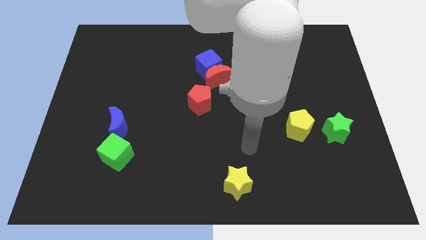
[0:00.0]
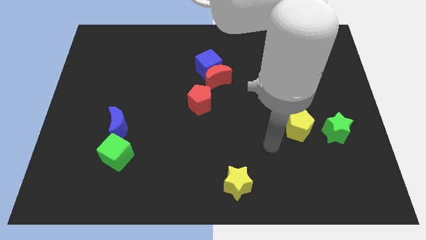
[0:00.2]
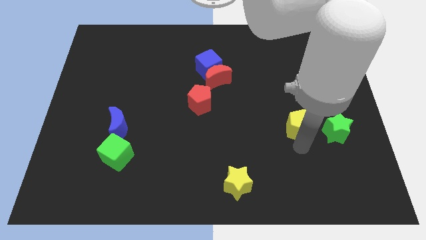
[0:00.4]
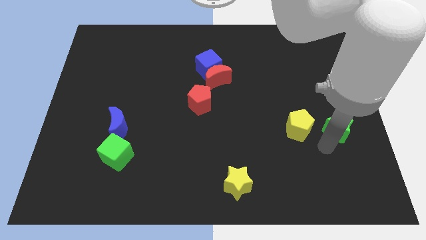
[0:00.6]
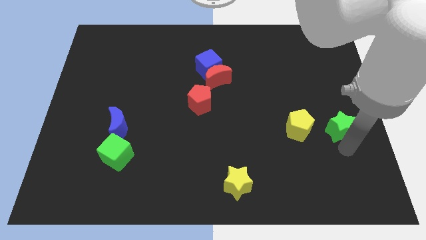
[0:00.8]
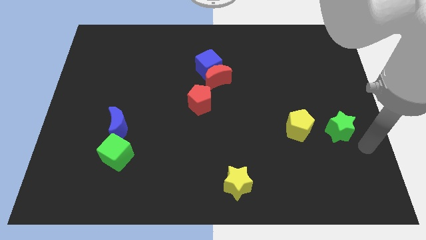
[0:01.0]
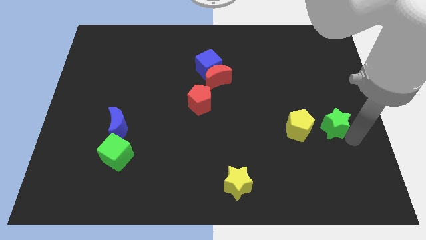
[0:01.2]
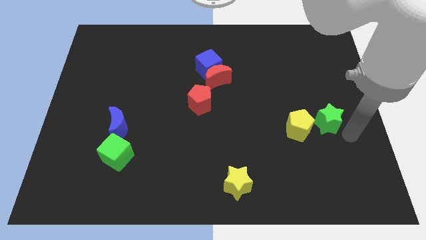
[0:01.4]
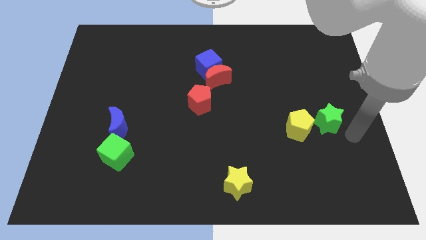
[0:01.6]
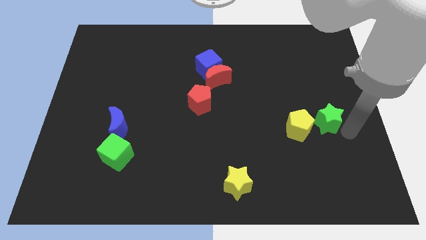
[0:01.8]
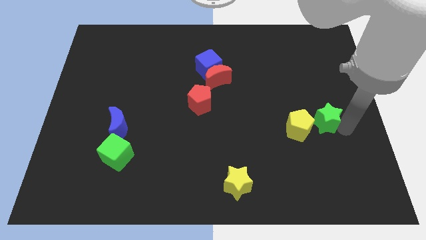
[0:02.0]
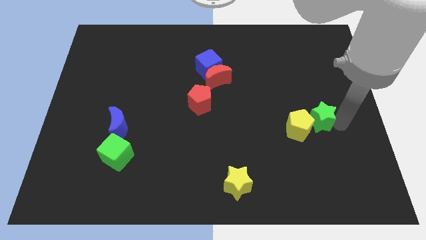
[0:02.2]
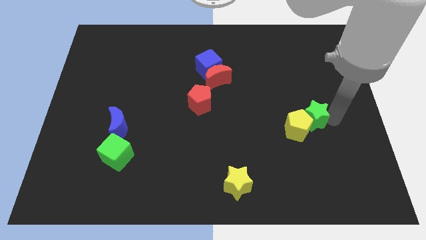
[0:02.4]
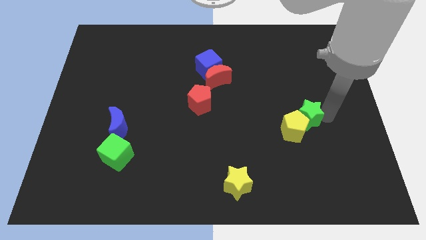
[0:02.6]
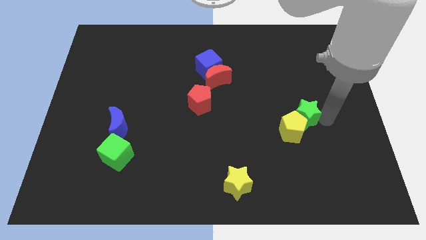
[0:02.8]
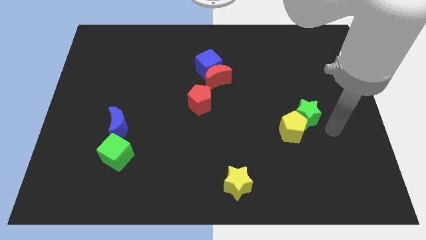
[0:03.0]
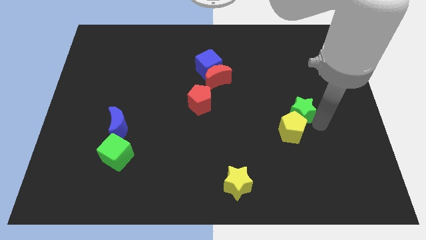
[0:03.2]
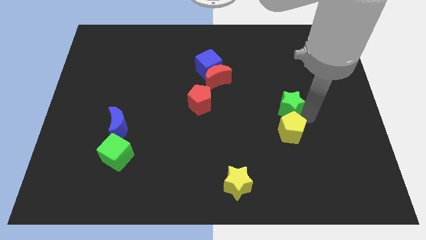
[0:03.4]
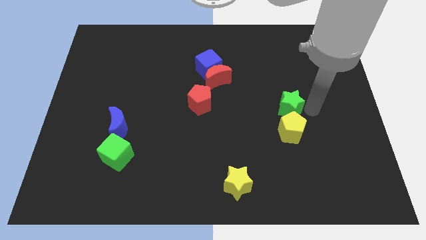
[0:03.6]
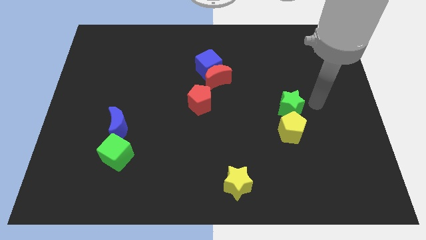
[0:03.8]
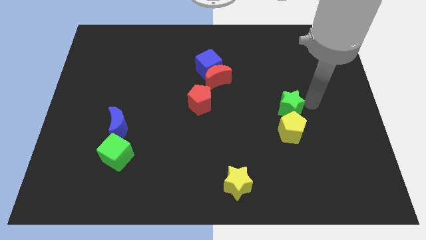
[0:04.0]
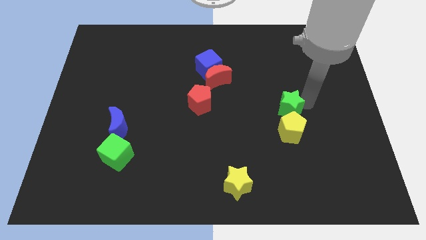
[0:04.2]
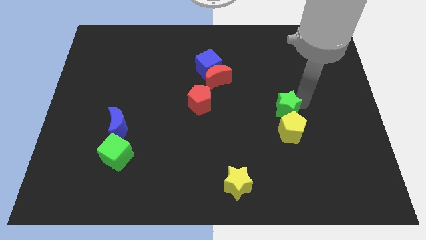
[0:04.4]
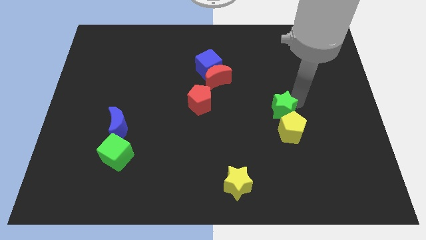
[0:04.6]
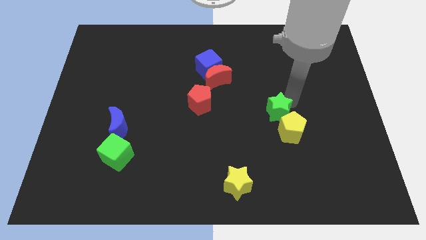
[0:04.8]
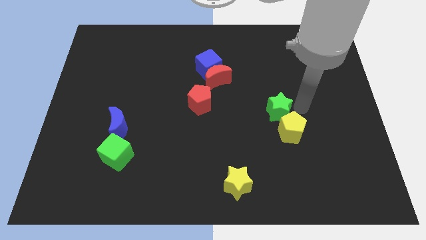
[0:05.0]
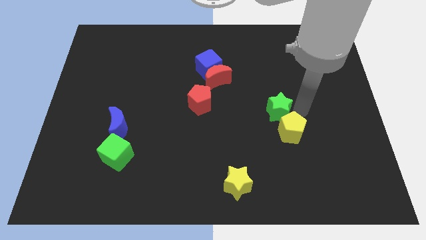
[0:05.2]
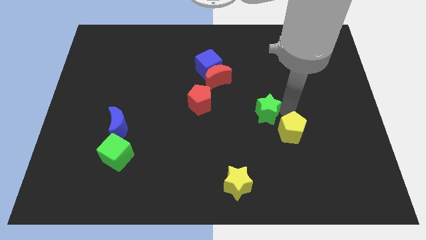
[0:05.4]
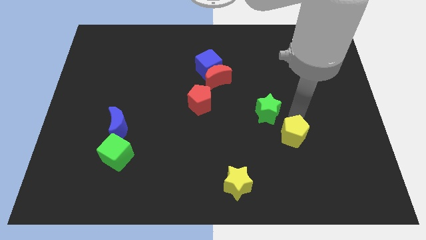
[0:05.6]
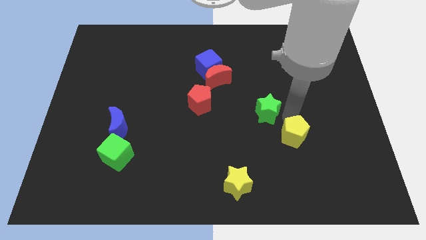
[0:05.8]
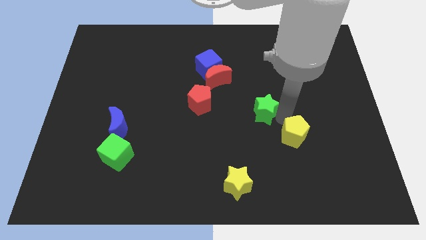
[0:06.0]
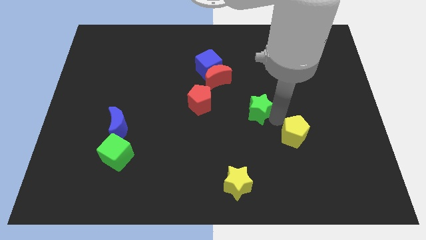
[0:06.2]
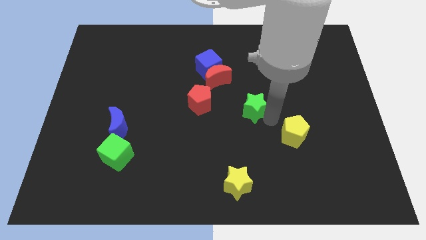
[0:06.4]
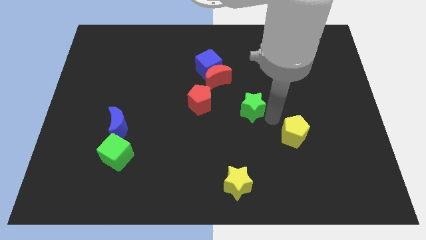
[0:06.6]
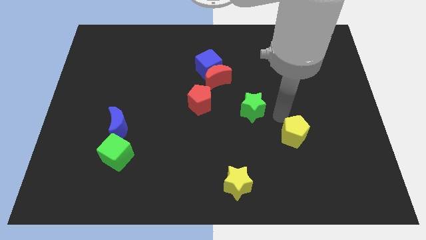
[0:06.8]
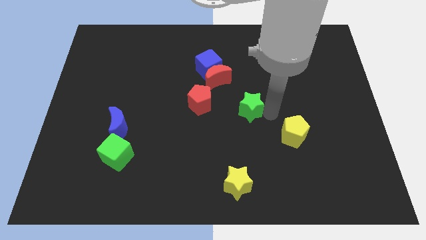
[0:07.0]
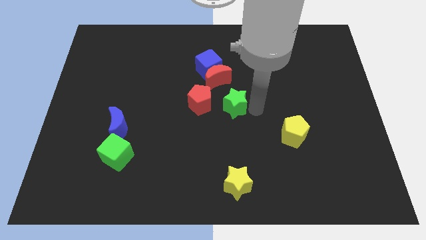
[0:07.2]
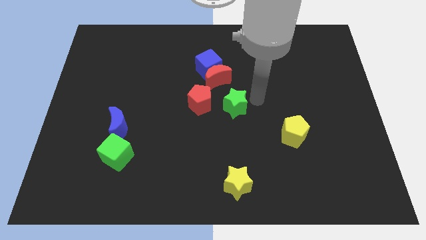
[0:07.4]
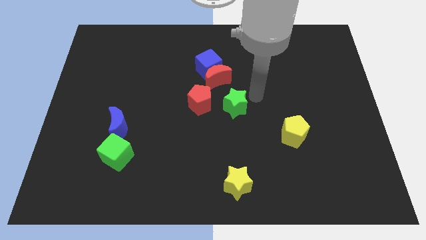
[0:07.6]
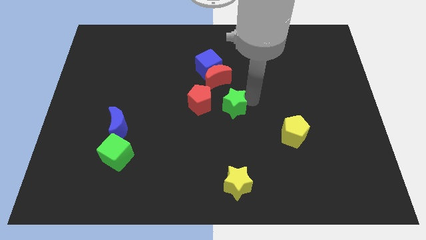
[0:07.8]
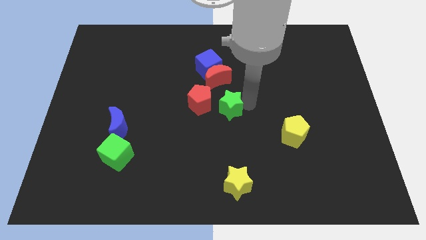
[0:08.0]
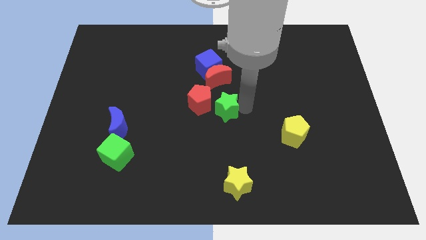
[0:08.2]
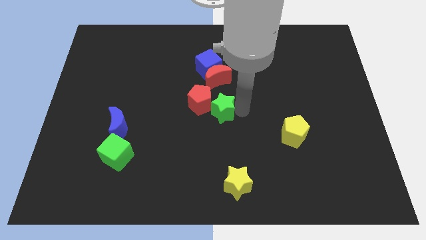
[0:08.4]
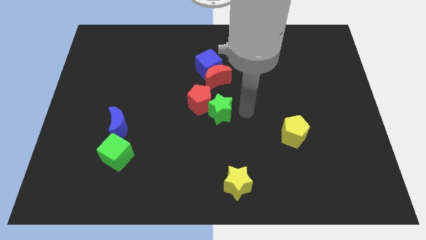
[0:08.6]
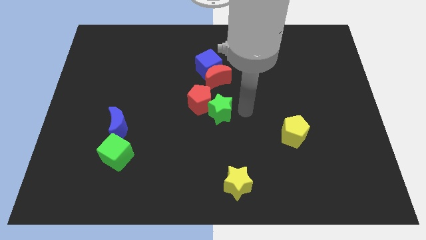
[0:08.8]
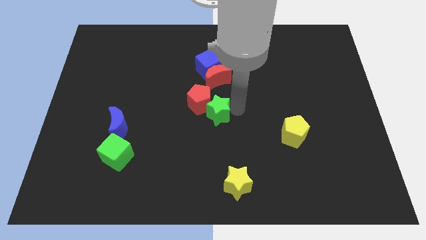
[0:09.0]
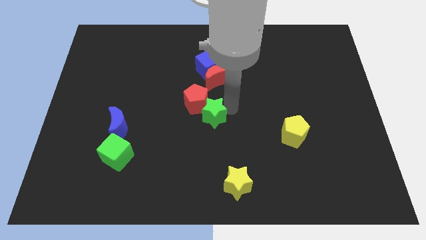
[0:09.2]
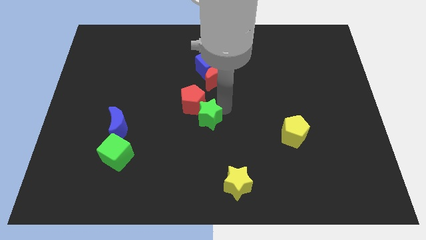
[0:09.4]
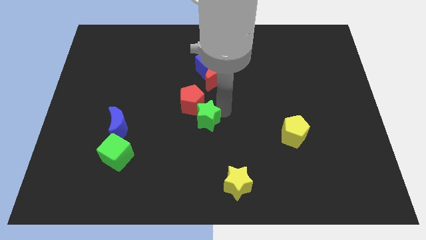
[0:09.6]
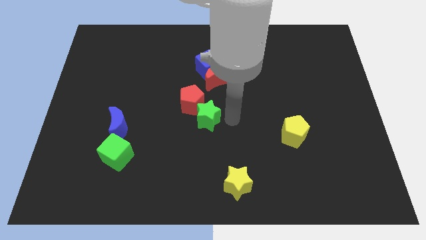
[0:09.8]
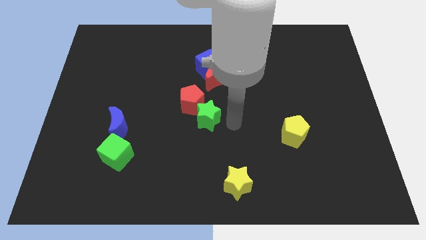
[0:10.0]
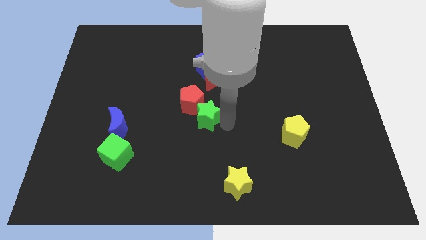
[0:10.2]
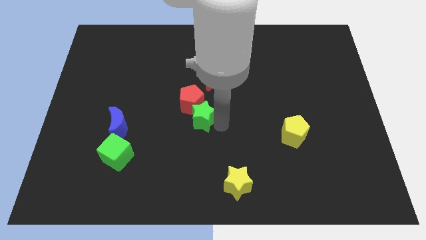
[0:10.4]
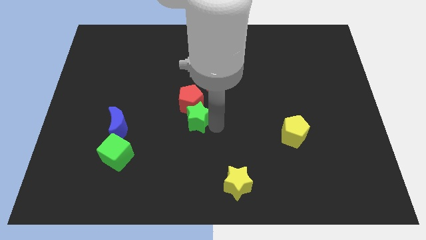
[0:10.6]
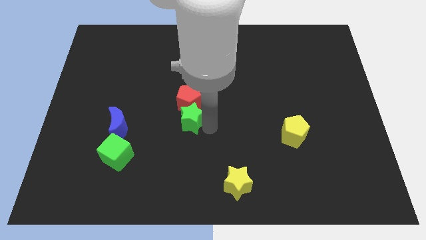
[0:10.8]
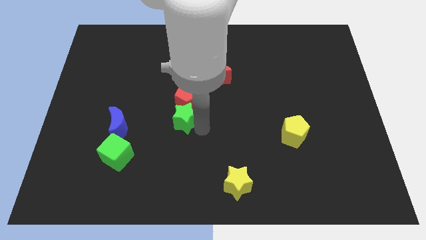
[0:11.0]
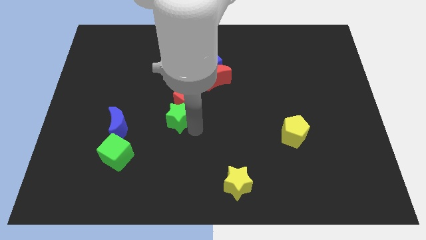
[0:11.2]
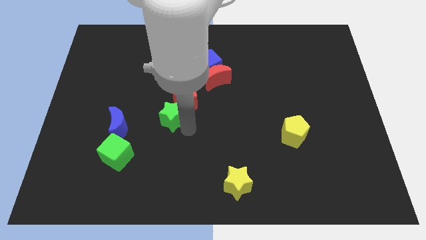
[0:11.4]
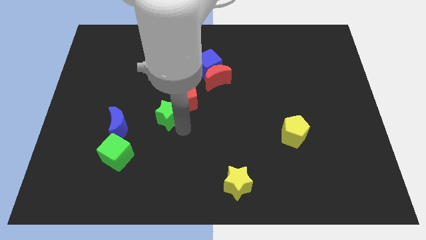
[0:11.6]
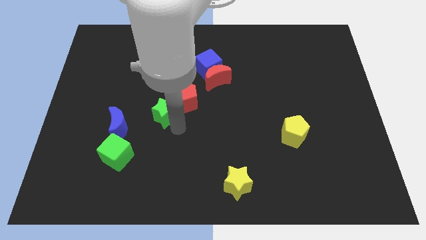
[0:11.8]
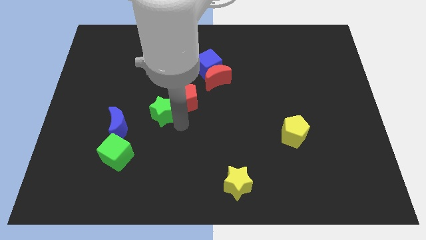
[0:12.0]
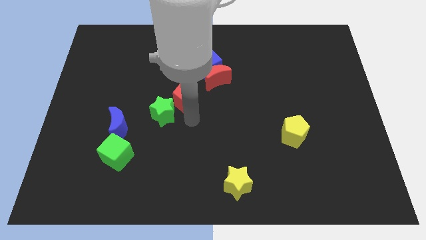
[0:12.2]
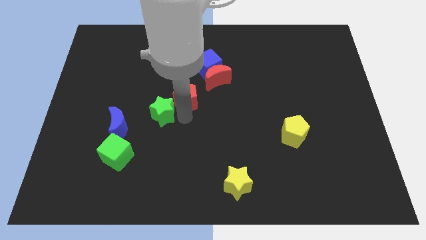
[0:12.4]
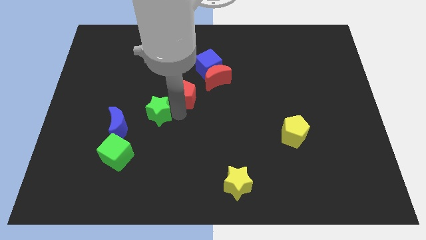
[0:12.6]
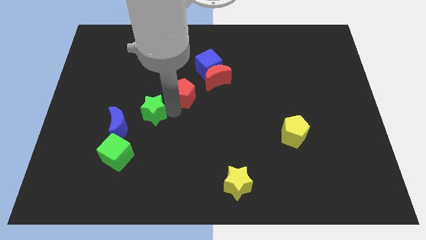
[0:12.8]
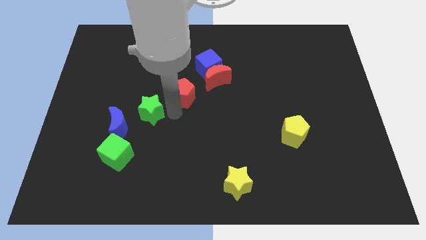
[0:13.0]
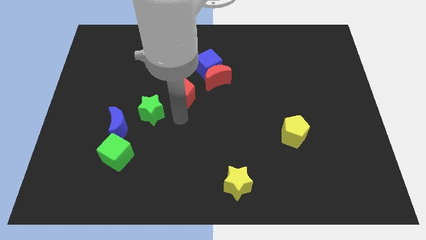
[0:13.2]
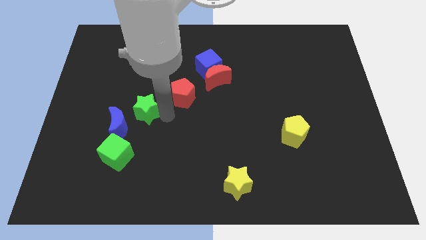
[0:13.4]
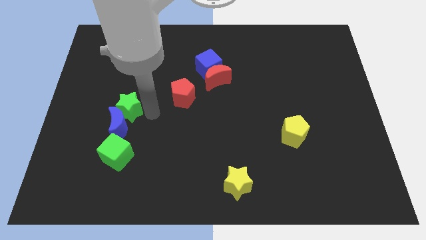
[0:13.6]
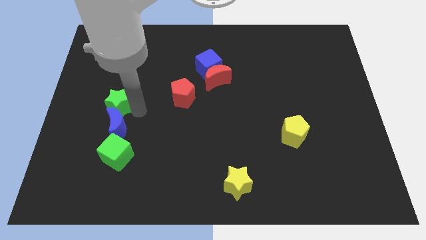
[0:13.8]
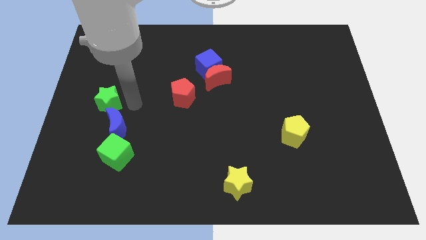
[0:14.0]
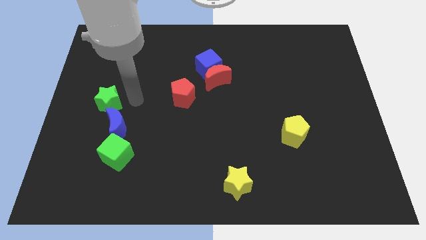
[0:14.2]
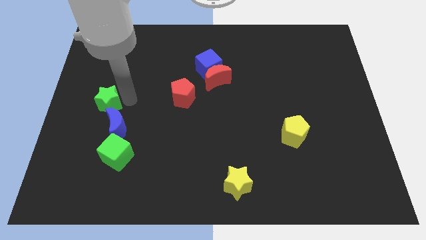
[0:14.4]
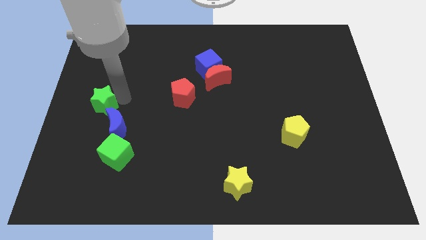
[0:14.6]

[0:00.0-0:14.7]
put the green star to the left side
